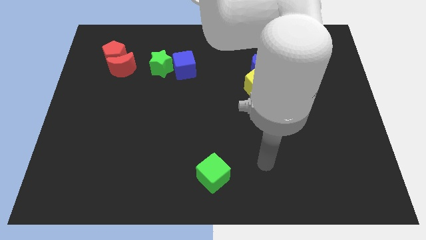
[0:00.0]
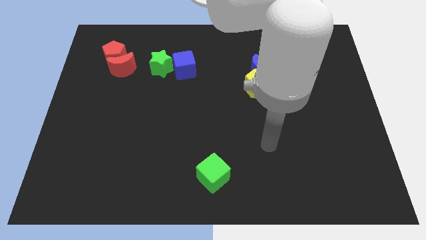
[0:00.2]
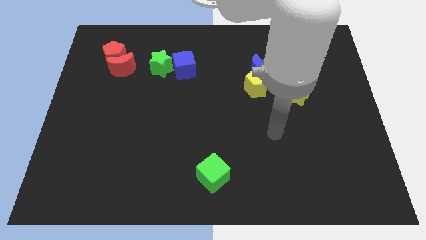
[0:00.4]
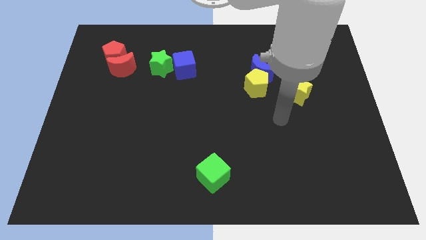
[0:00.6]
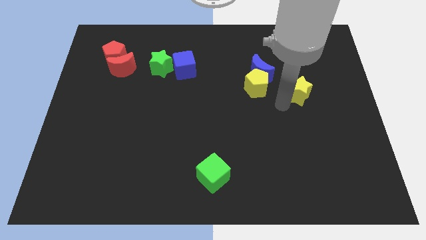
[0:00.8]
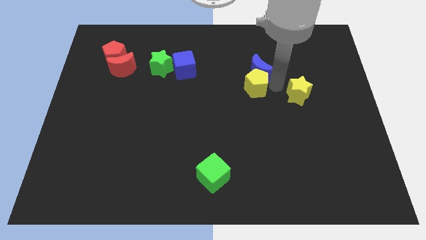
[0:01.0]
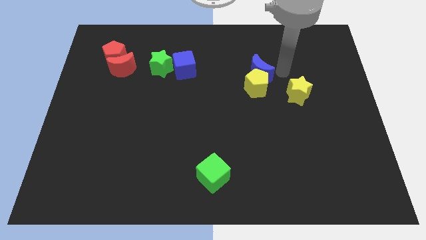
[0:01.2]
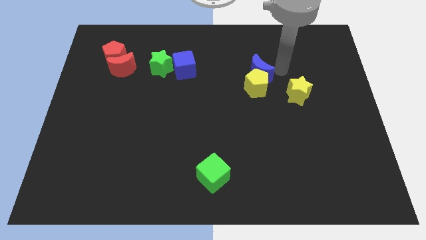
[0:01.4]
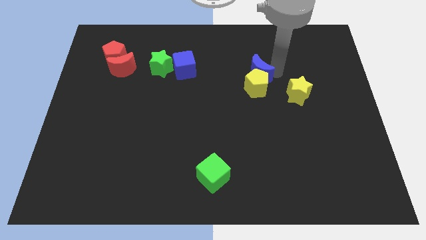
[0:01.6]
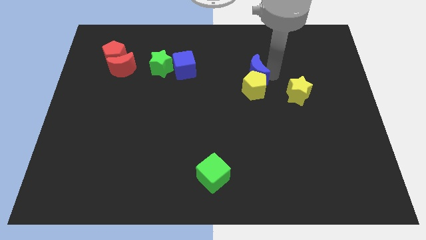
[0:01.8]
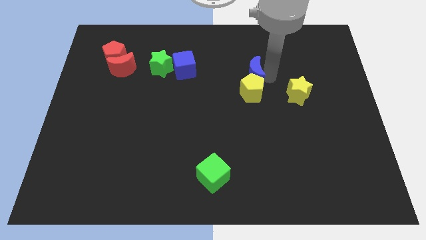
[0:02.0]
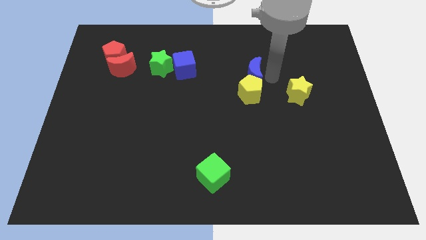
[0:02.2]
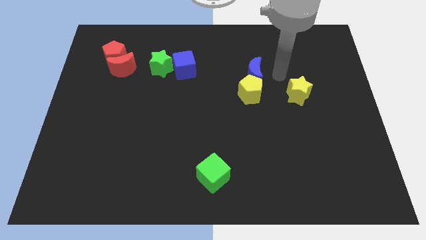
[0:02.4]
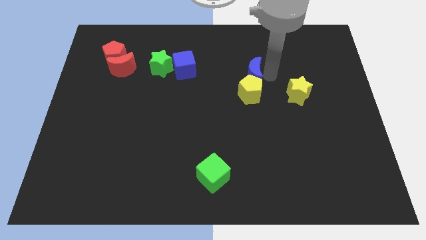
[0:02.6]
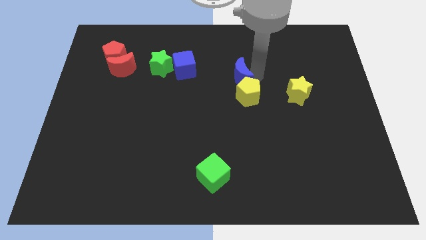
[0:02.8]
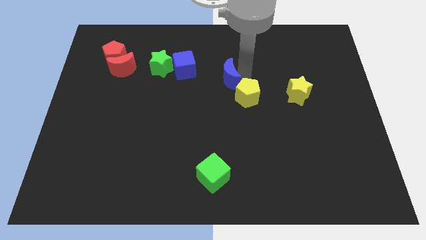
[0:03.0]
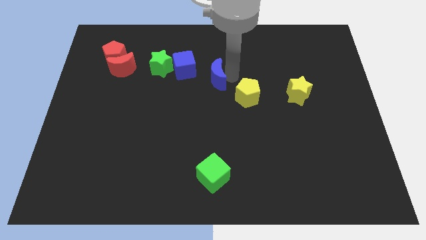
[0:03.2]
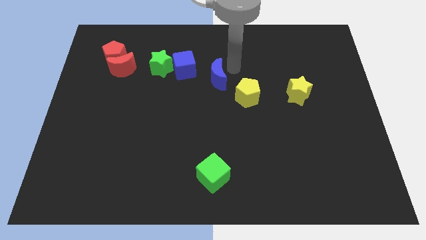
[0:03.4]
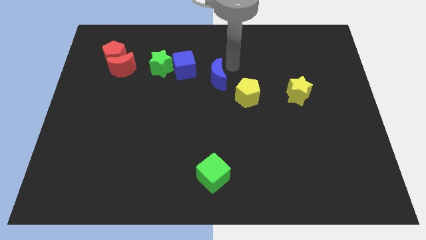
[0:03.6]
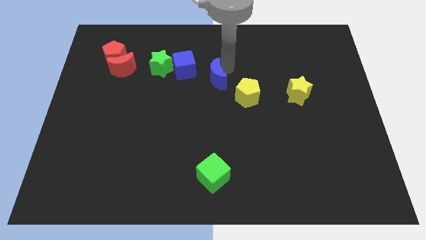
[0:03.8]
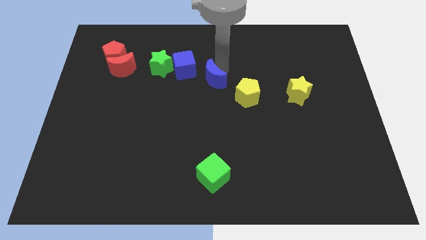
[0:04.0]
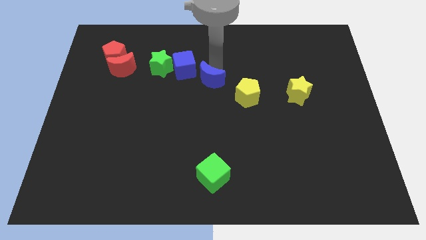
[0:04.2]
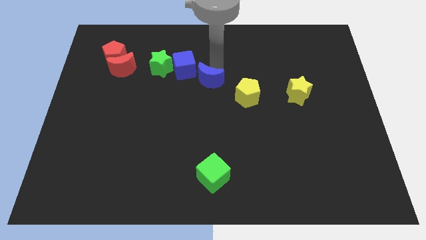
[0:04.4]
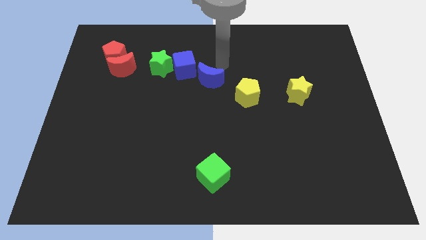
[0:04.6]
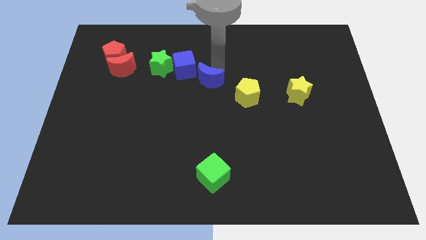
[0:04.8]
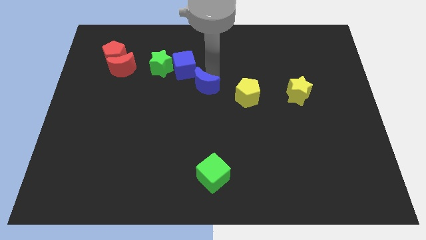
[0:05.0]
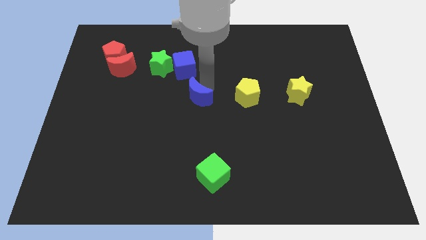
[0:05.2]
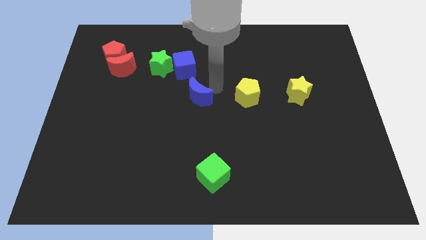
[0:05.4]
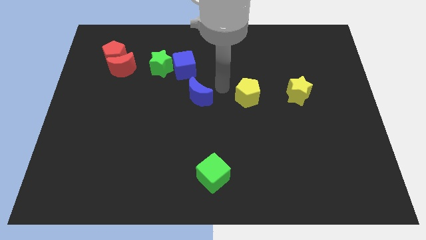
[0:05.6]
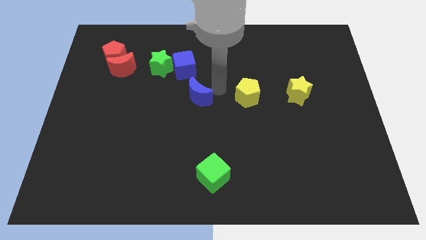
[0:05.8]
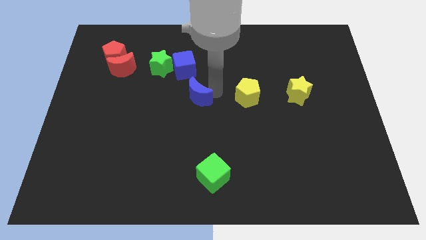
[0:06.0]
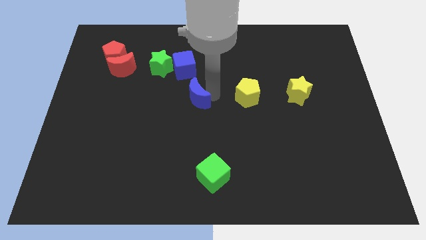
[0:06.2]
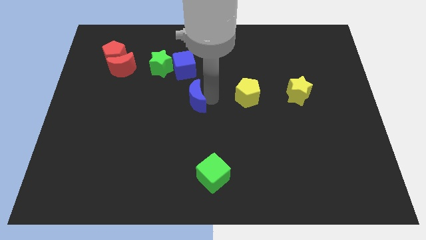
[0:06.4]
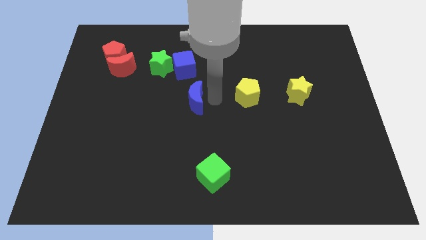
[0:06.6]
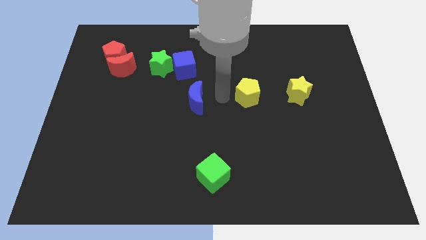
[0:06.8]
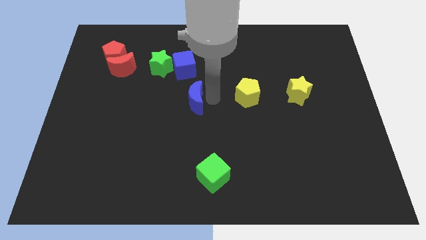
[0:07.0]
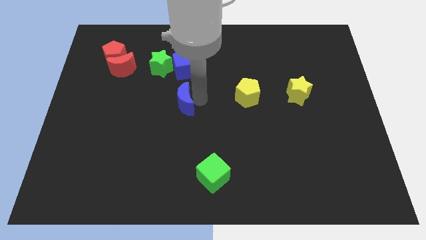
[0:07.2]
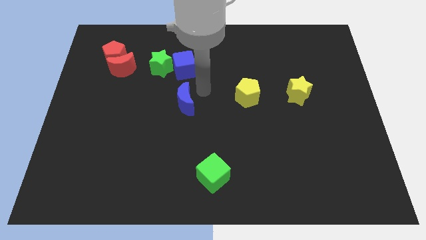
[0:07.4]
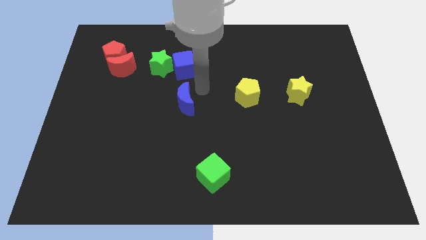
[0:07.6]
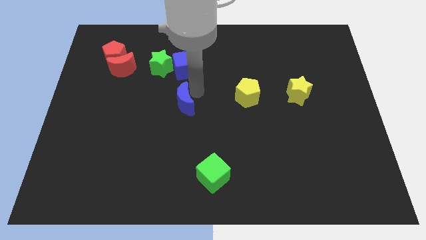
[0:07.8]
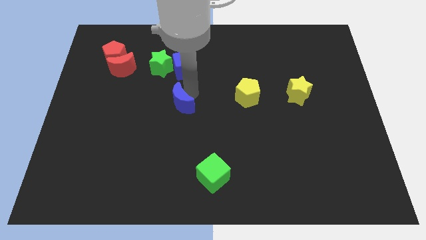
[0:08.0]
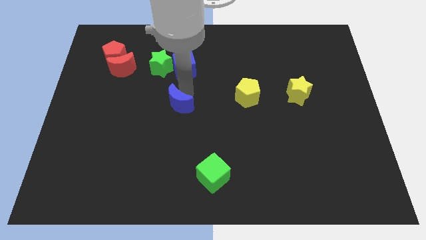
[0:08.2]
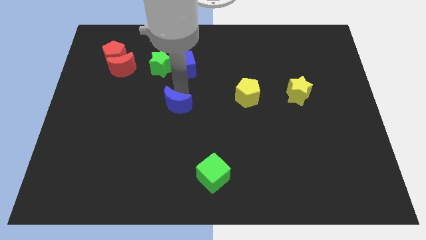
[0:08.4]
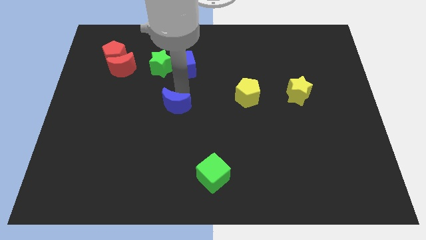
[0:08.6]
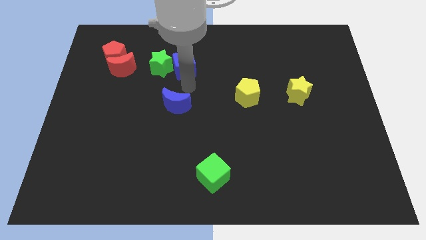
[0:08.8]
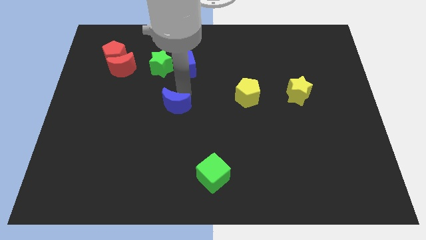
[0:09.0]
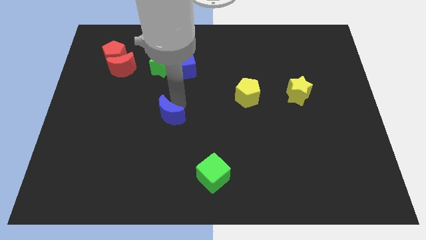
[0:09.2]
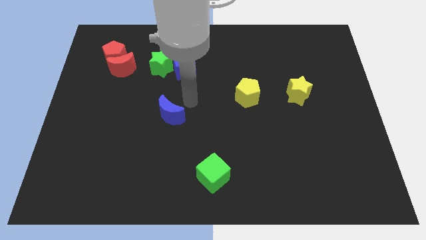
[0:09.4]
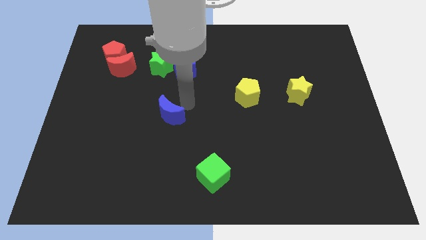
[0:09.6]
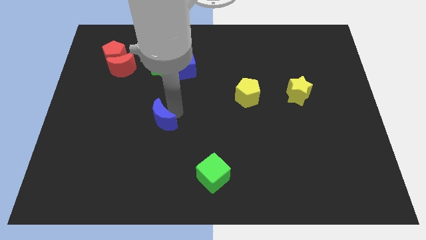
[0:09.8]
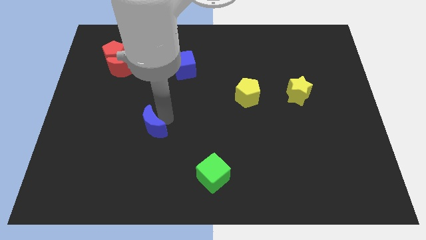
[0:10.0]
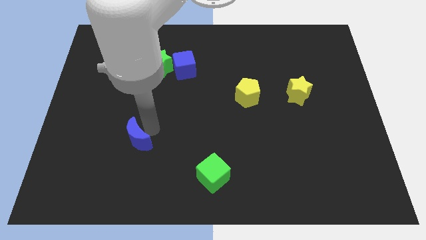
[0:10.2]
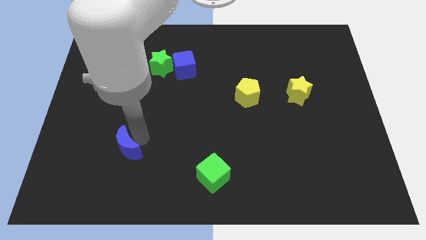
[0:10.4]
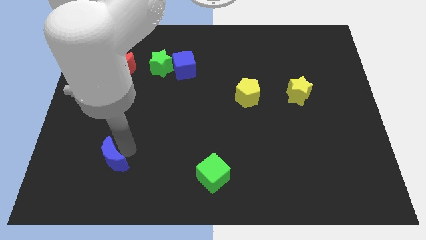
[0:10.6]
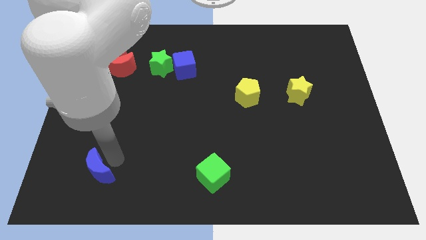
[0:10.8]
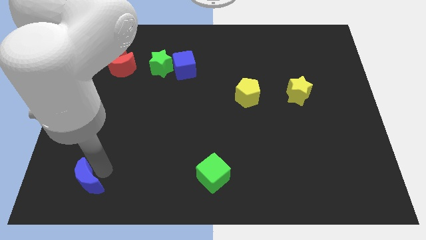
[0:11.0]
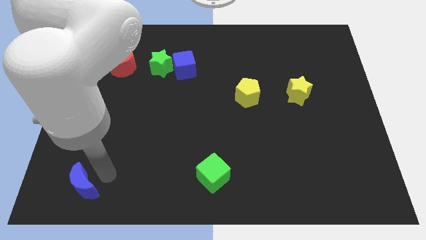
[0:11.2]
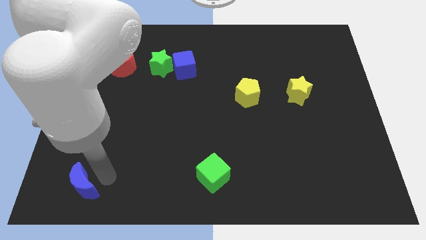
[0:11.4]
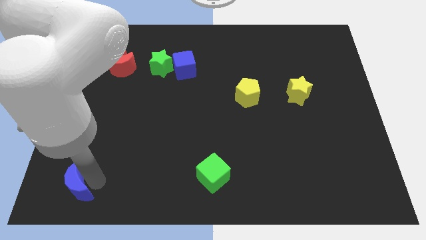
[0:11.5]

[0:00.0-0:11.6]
put the blue moon to the bottom left of the board
